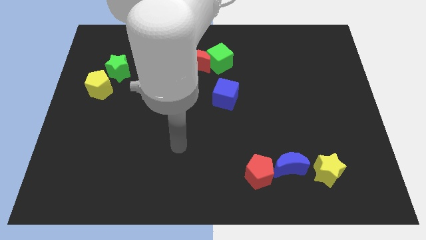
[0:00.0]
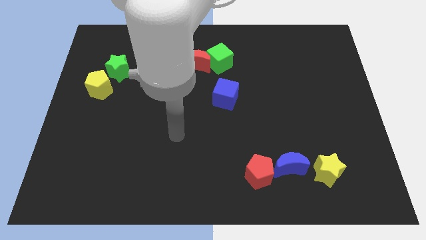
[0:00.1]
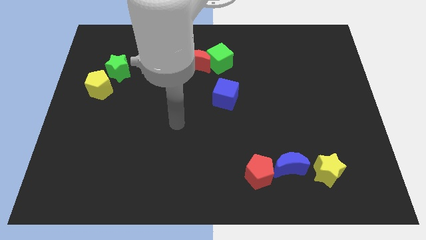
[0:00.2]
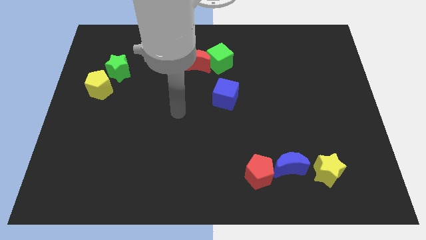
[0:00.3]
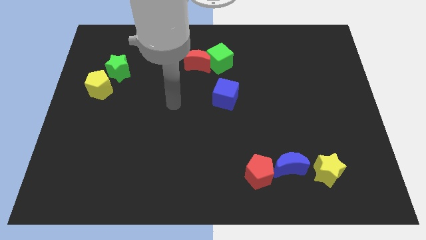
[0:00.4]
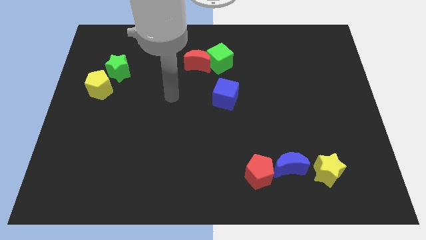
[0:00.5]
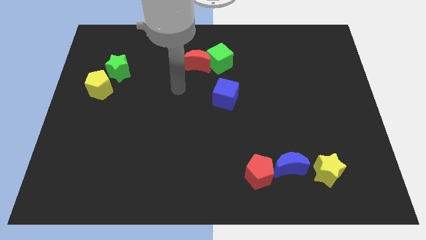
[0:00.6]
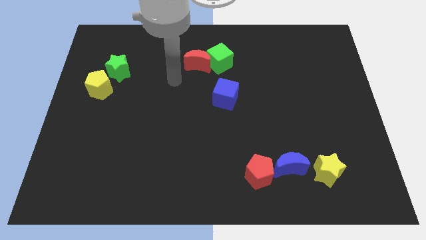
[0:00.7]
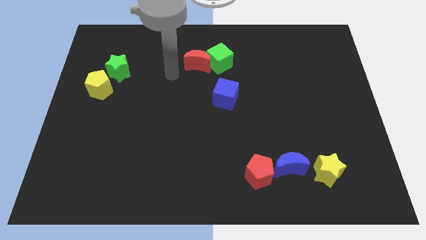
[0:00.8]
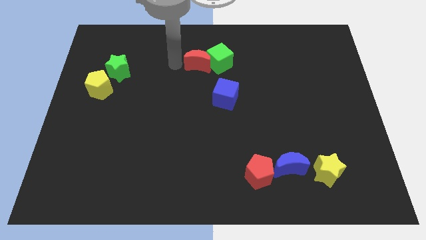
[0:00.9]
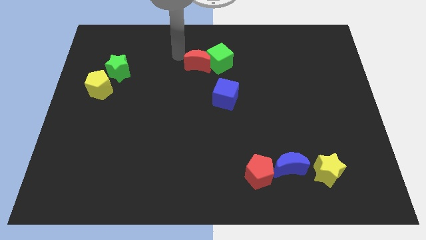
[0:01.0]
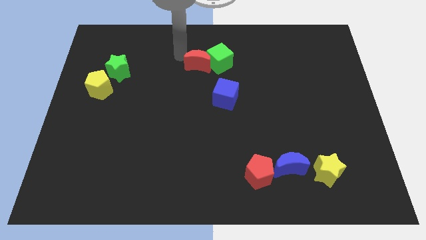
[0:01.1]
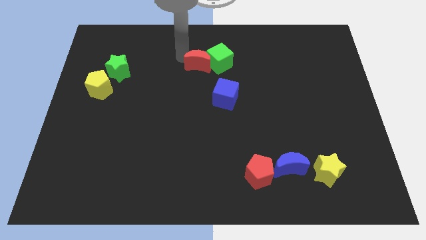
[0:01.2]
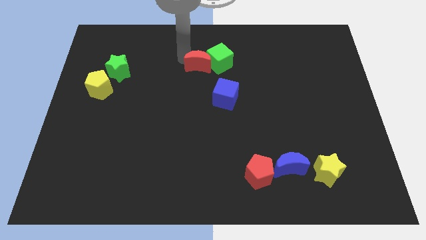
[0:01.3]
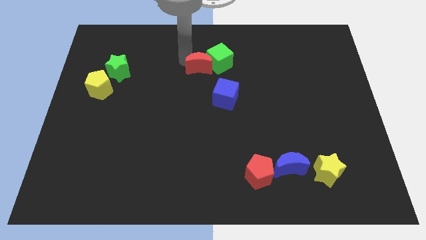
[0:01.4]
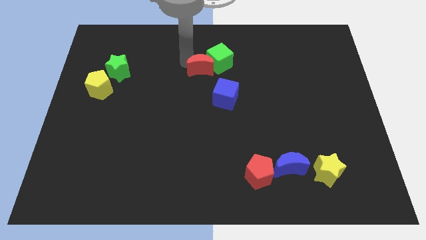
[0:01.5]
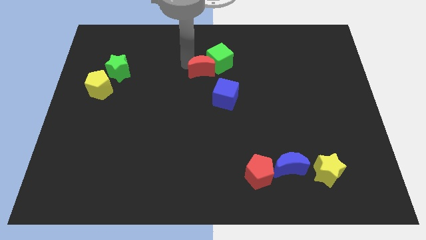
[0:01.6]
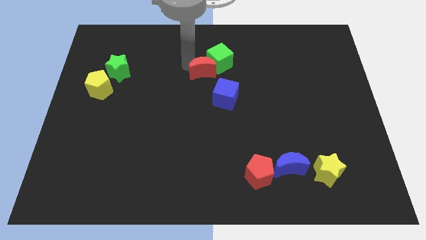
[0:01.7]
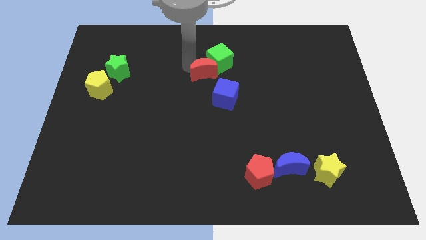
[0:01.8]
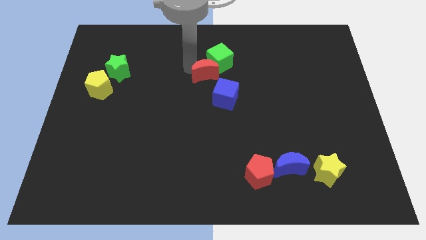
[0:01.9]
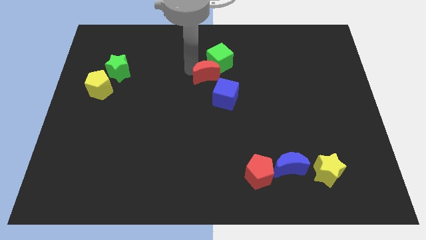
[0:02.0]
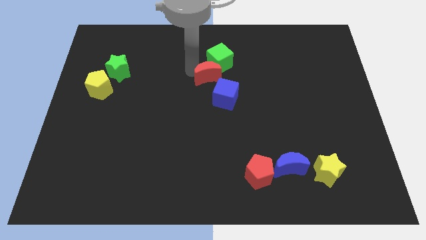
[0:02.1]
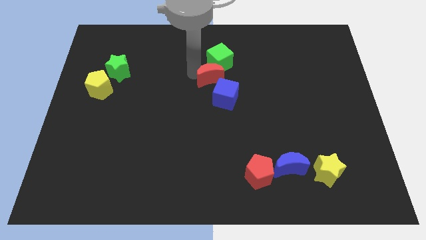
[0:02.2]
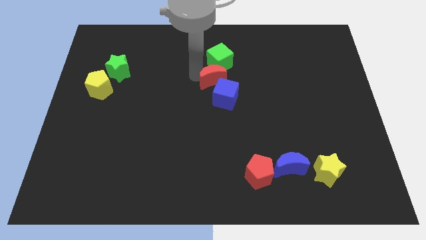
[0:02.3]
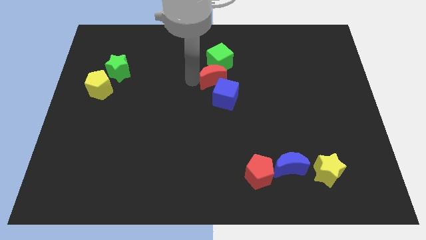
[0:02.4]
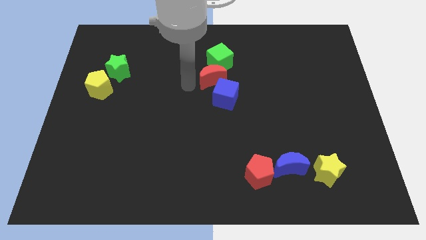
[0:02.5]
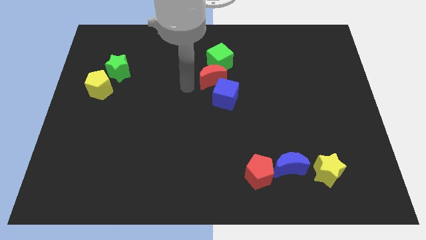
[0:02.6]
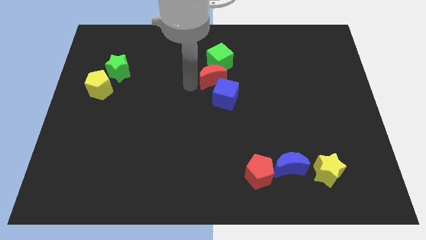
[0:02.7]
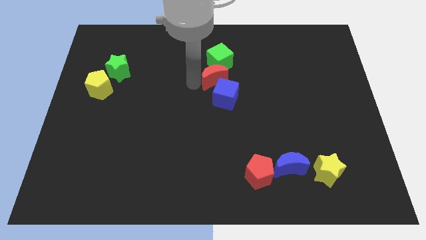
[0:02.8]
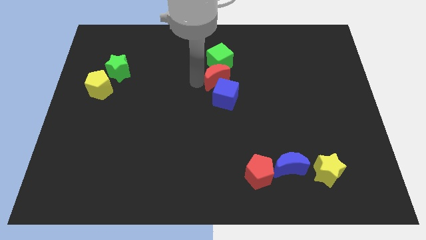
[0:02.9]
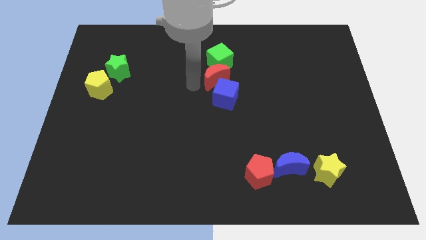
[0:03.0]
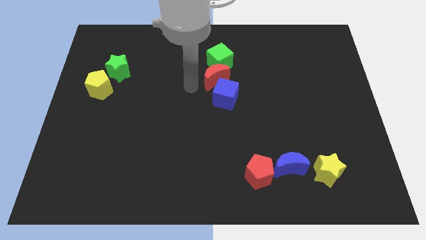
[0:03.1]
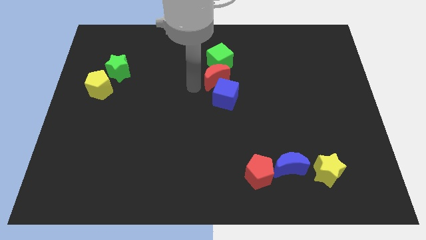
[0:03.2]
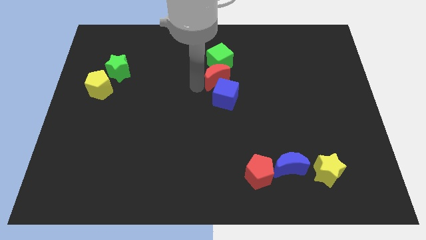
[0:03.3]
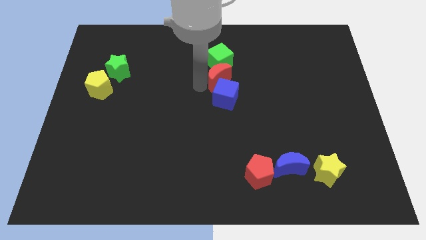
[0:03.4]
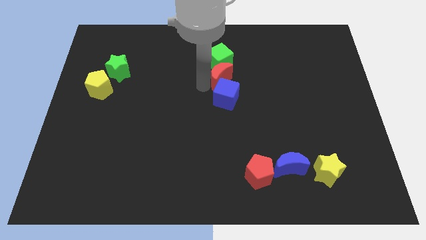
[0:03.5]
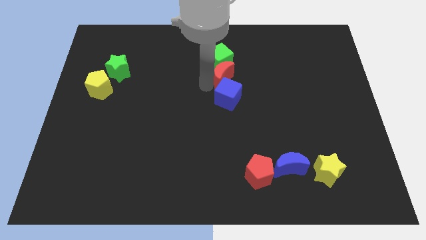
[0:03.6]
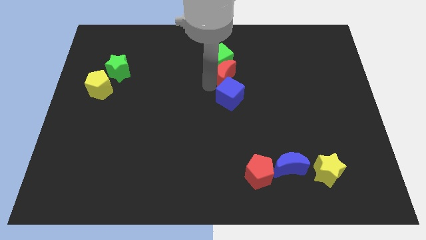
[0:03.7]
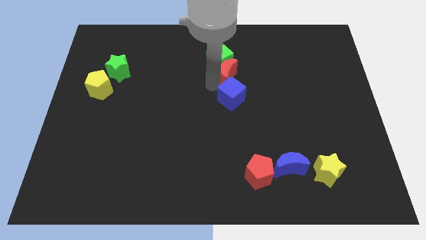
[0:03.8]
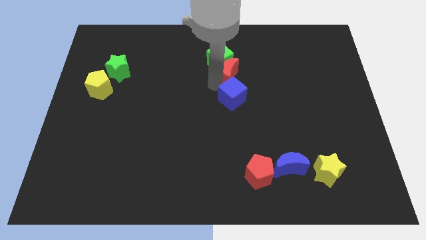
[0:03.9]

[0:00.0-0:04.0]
move the red moon right somewhat

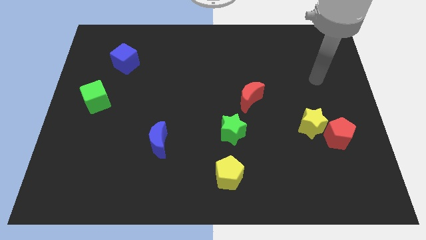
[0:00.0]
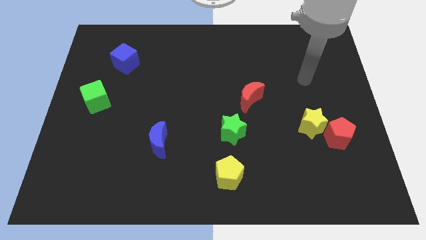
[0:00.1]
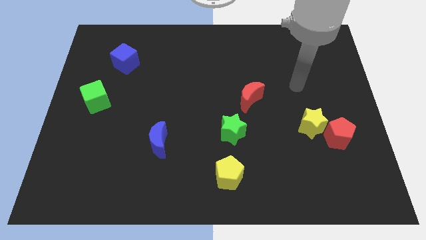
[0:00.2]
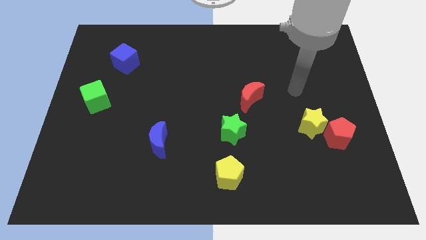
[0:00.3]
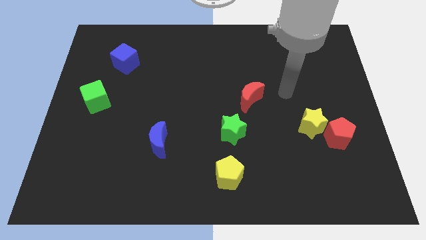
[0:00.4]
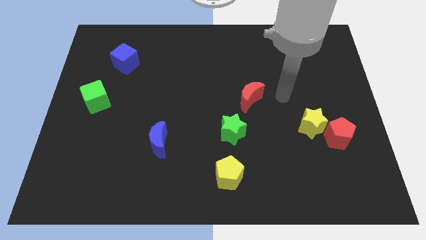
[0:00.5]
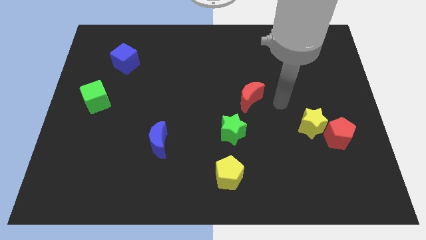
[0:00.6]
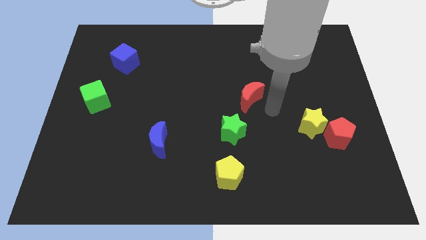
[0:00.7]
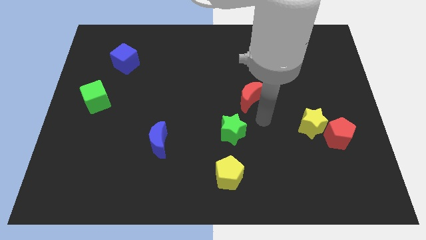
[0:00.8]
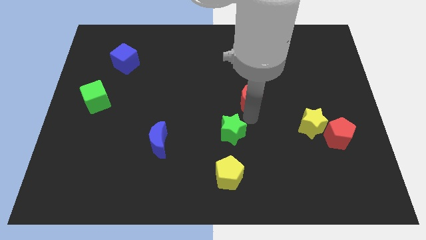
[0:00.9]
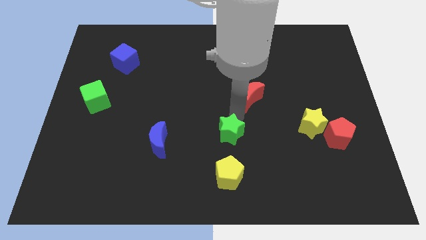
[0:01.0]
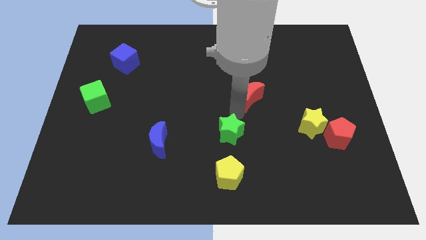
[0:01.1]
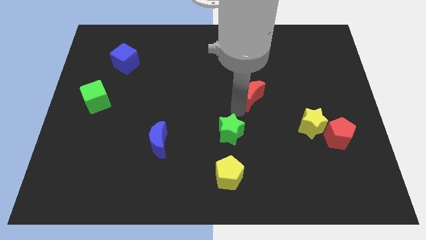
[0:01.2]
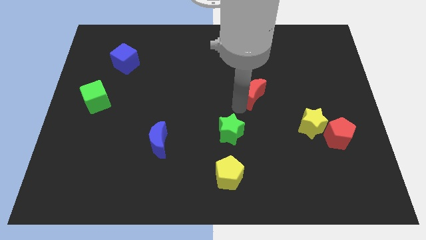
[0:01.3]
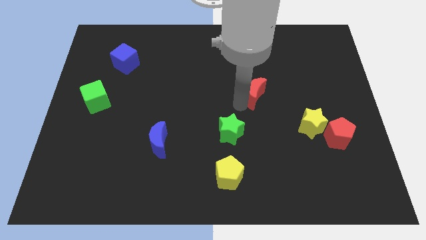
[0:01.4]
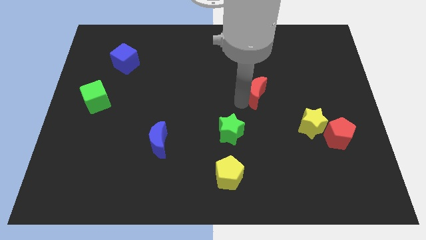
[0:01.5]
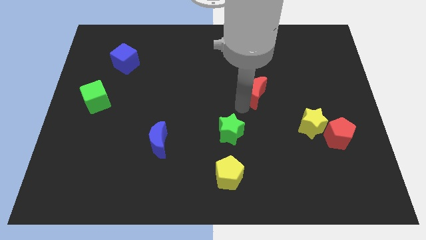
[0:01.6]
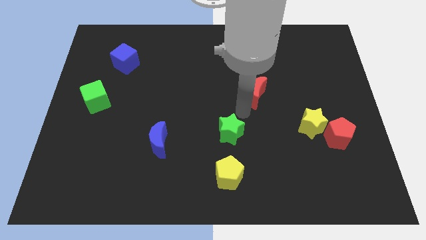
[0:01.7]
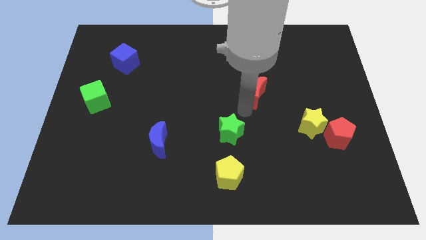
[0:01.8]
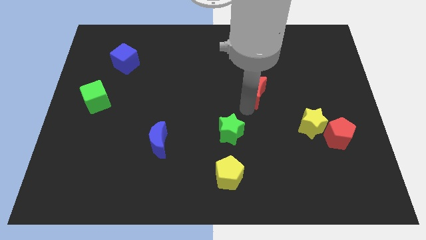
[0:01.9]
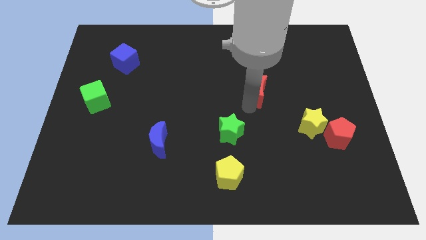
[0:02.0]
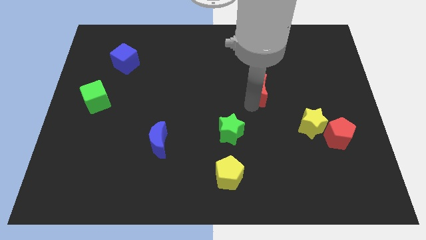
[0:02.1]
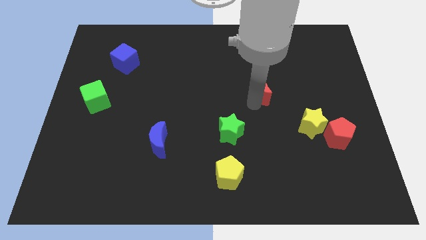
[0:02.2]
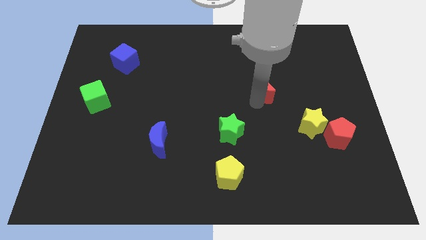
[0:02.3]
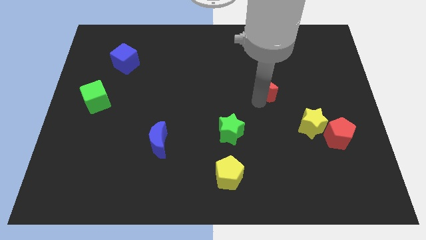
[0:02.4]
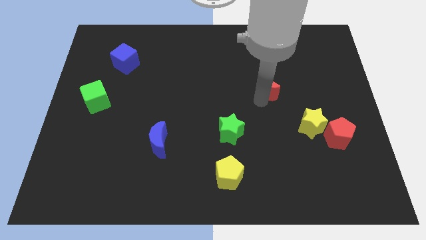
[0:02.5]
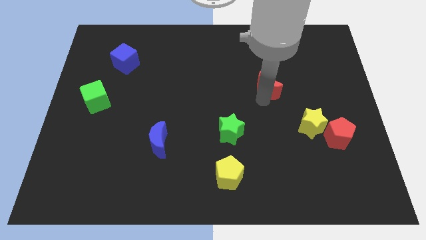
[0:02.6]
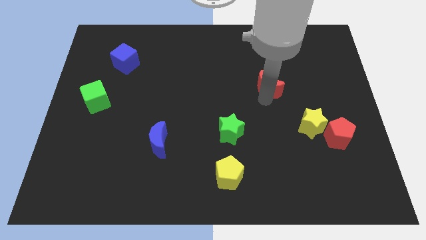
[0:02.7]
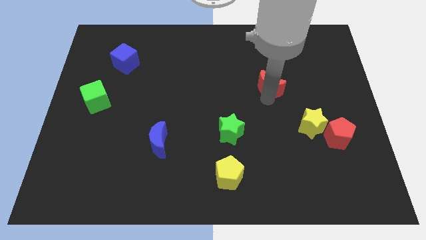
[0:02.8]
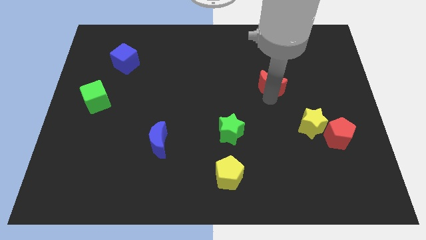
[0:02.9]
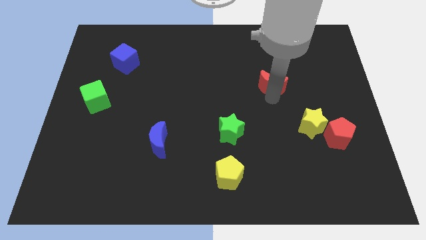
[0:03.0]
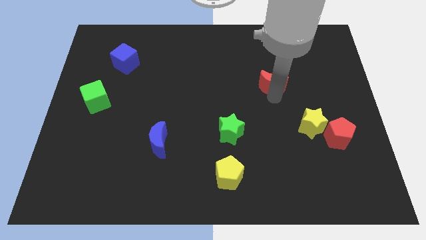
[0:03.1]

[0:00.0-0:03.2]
slightly move the red moon upwards and to the right

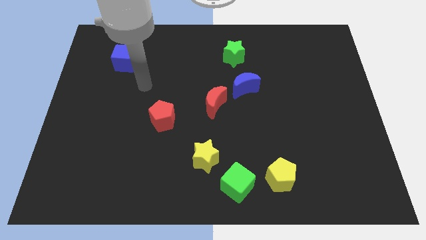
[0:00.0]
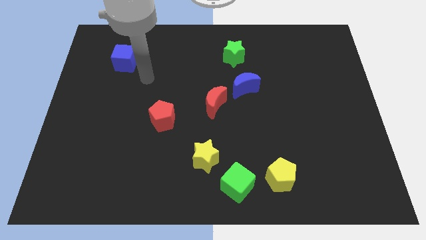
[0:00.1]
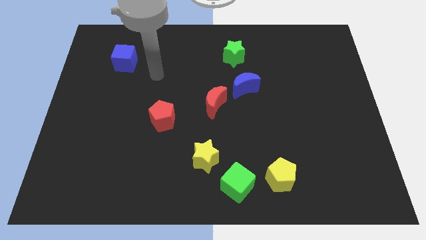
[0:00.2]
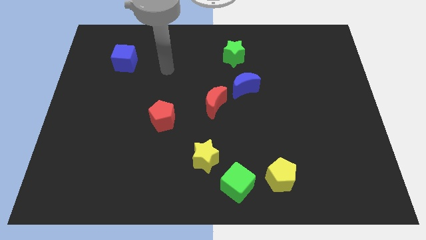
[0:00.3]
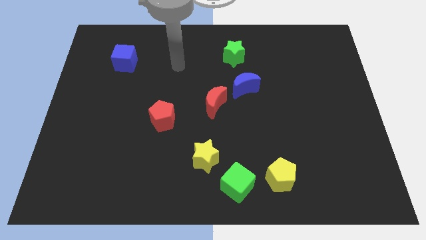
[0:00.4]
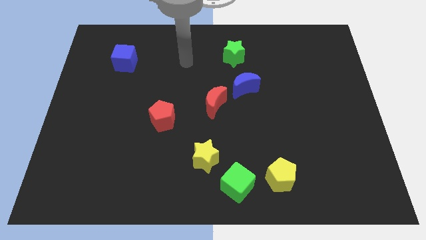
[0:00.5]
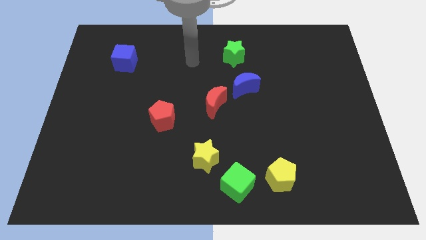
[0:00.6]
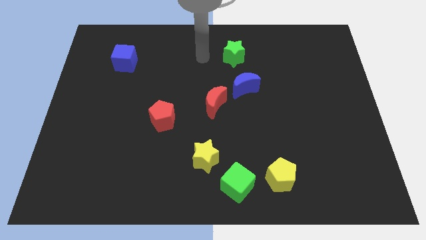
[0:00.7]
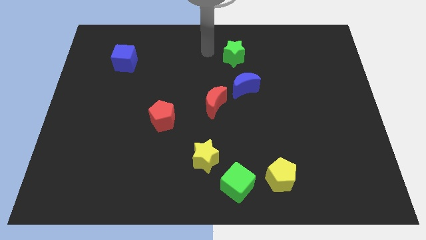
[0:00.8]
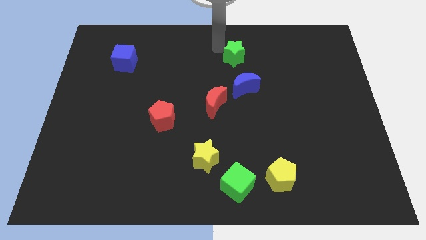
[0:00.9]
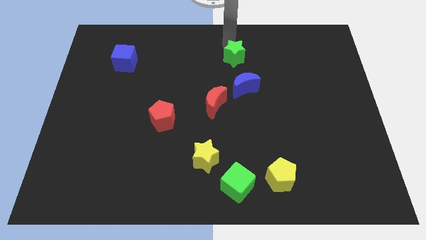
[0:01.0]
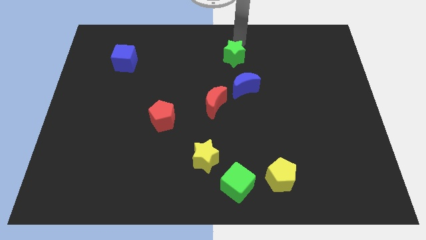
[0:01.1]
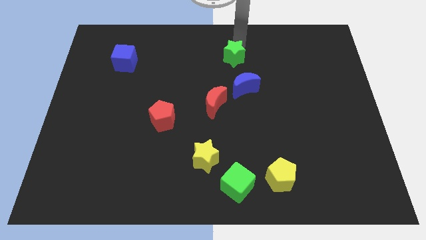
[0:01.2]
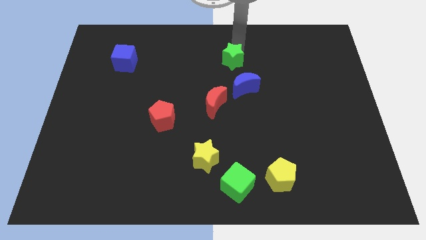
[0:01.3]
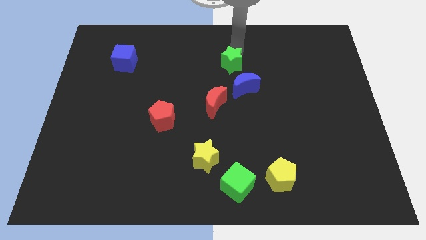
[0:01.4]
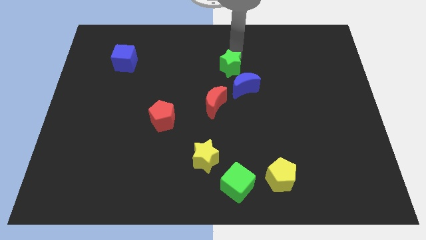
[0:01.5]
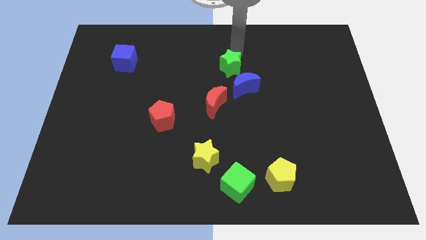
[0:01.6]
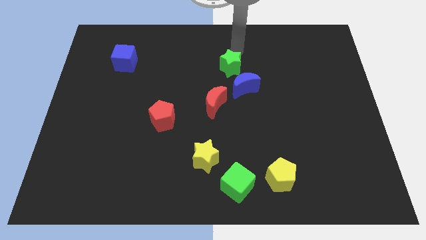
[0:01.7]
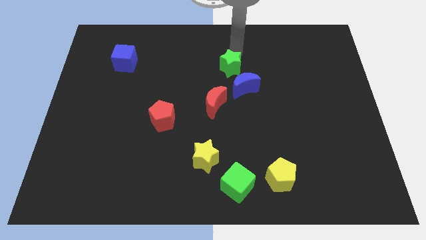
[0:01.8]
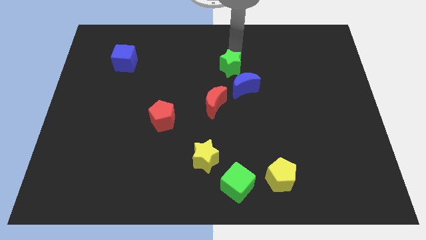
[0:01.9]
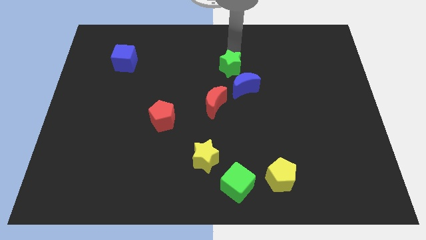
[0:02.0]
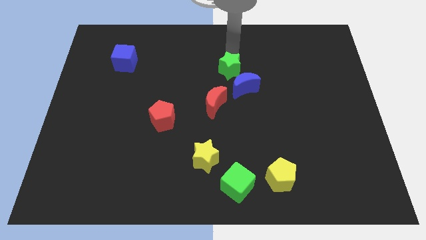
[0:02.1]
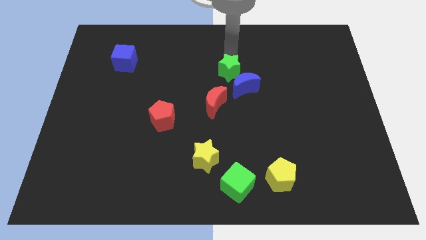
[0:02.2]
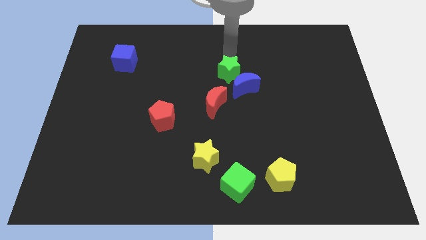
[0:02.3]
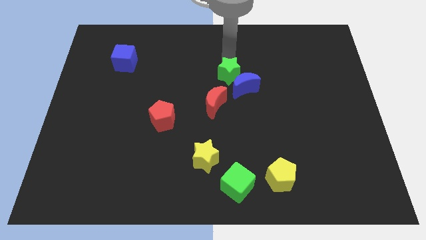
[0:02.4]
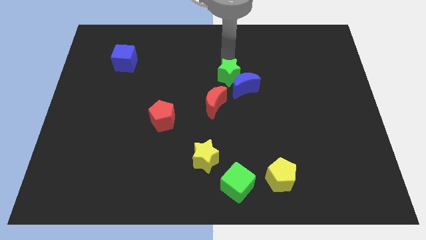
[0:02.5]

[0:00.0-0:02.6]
slide the green star somewhat downwards
